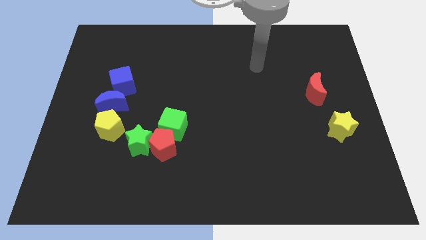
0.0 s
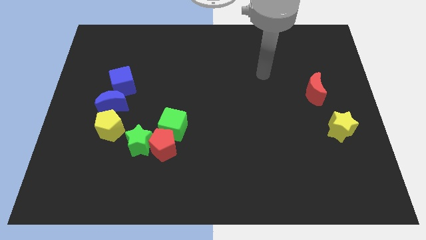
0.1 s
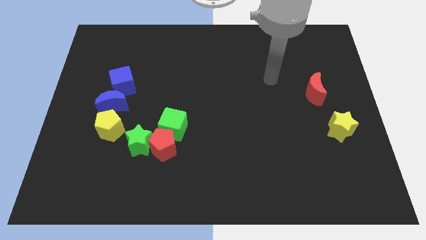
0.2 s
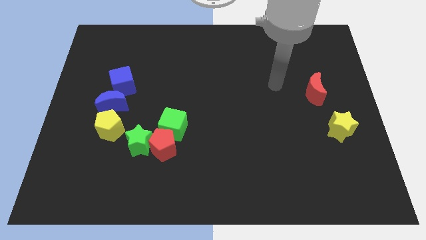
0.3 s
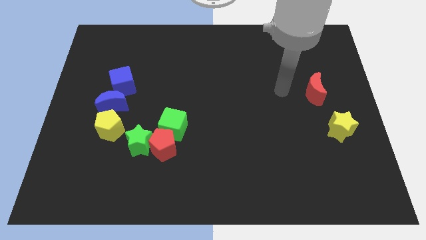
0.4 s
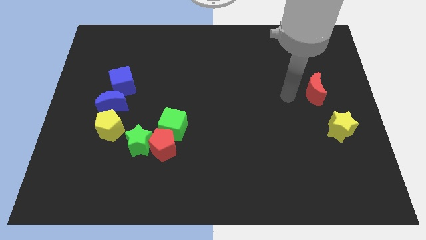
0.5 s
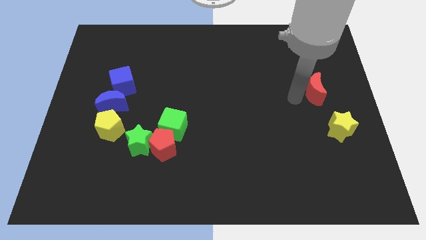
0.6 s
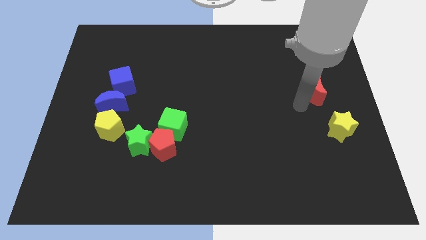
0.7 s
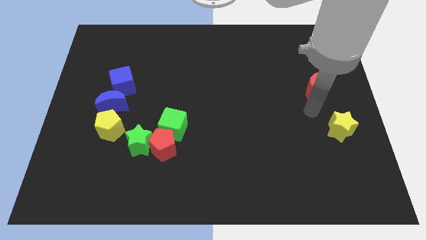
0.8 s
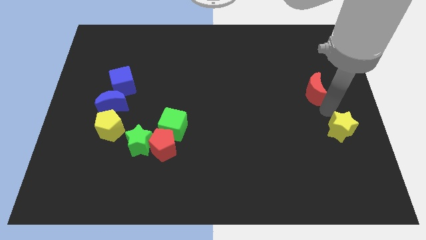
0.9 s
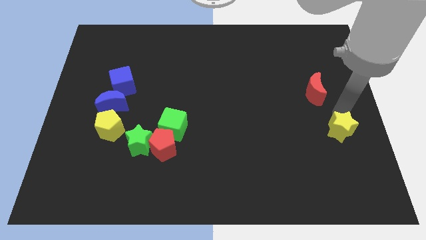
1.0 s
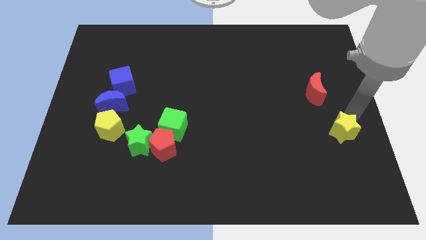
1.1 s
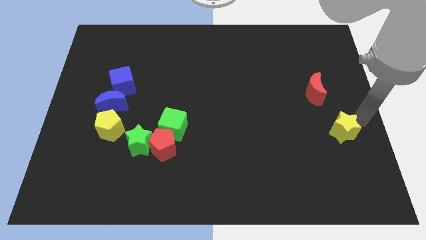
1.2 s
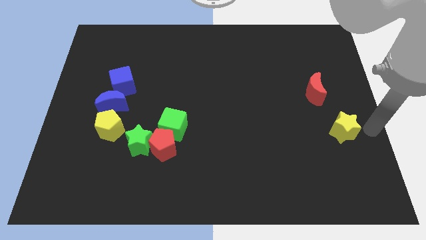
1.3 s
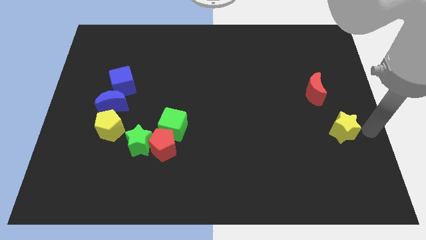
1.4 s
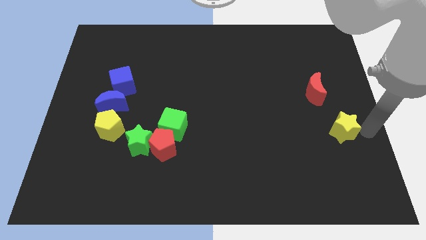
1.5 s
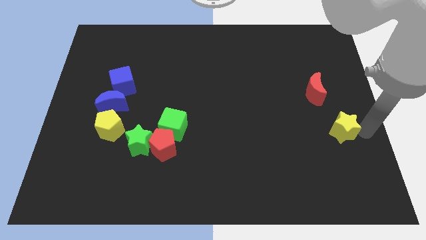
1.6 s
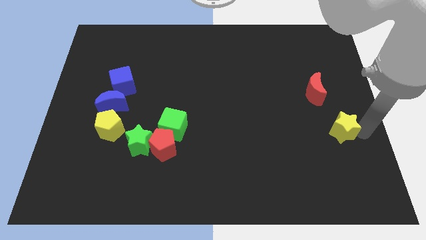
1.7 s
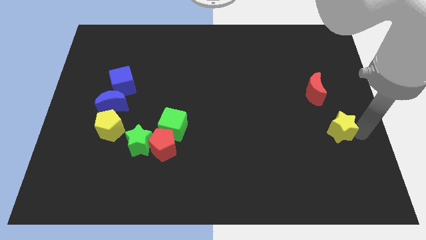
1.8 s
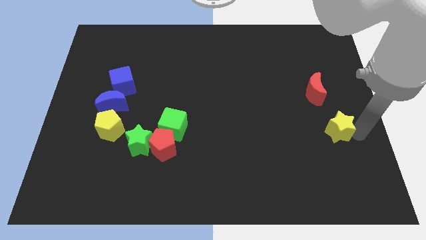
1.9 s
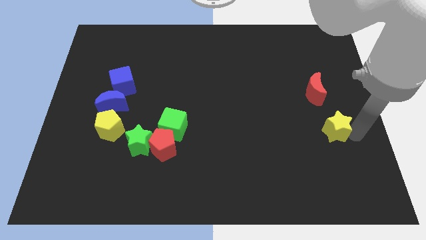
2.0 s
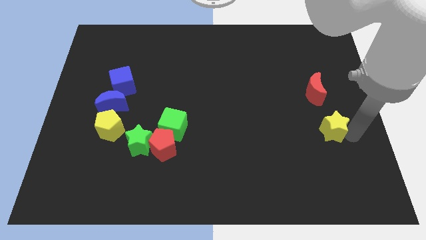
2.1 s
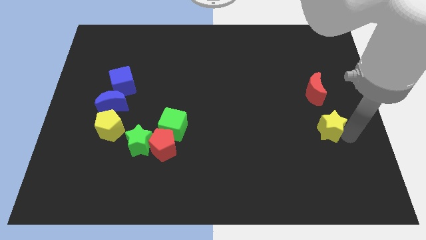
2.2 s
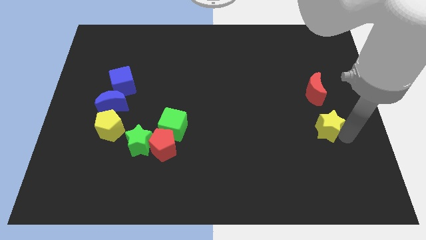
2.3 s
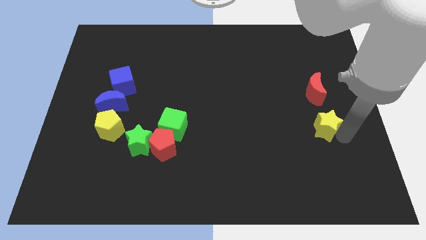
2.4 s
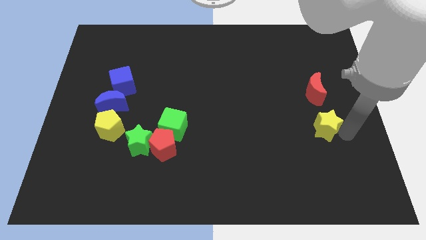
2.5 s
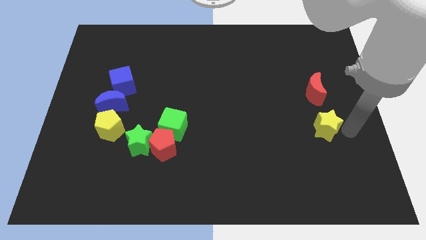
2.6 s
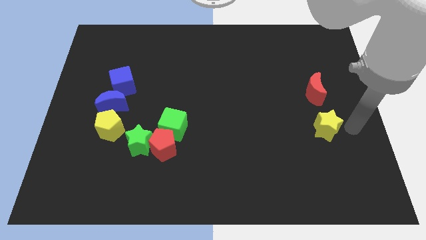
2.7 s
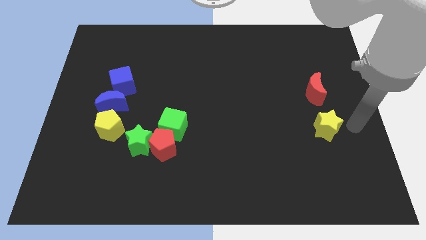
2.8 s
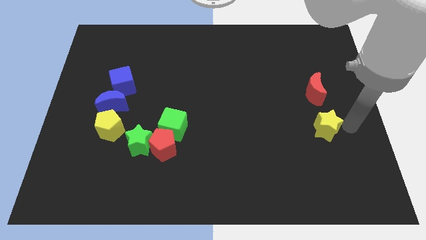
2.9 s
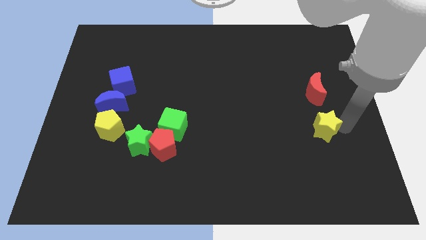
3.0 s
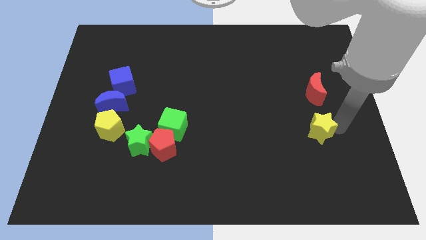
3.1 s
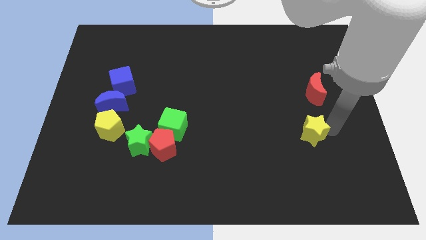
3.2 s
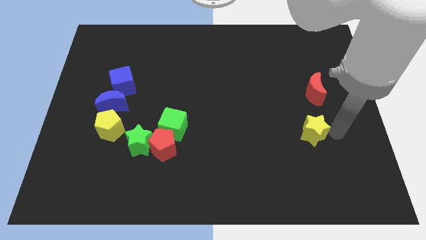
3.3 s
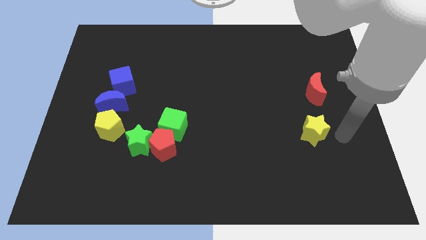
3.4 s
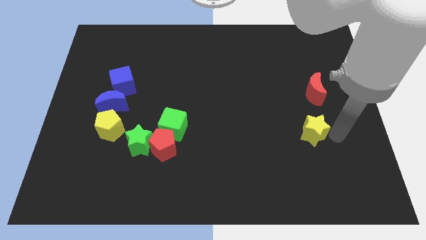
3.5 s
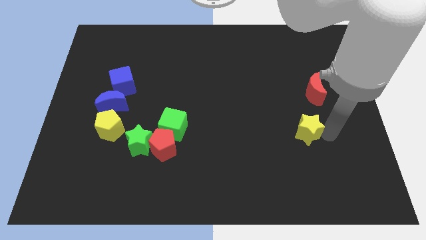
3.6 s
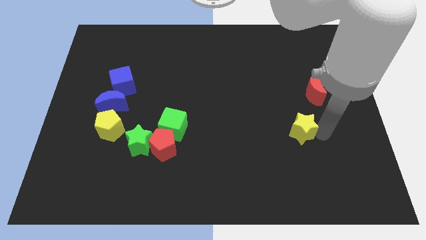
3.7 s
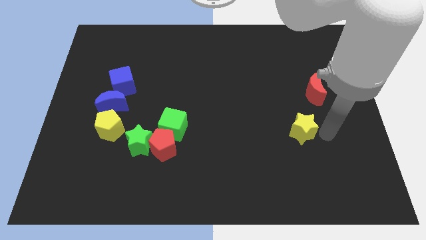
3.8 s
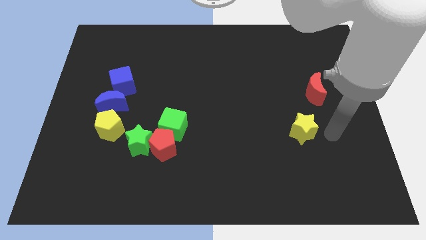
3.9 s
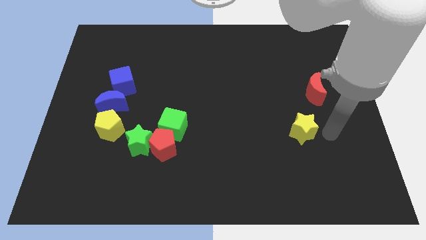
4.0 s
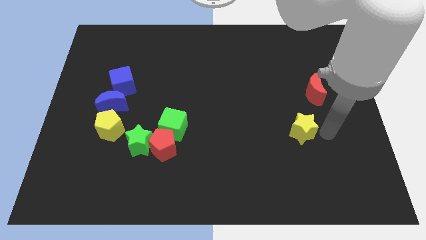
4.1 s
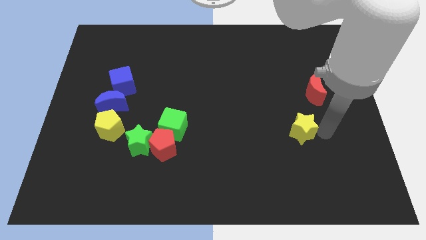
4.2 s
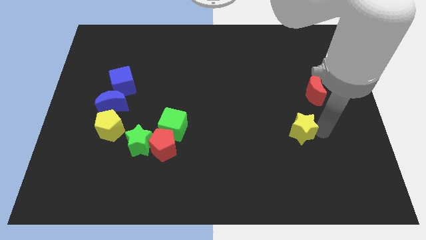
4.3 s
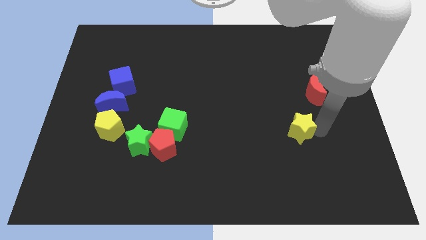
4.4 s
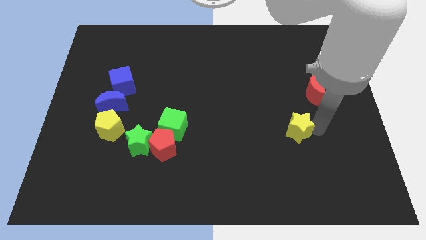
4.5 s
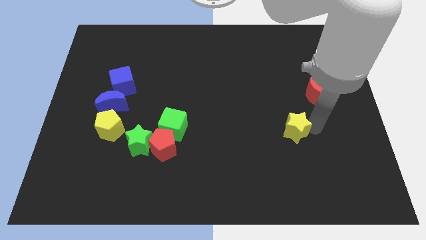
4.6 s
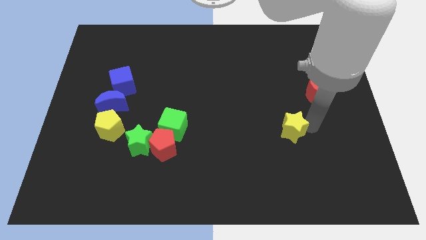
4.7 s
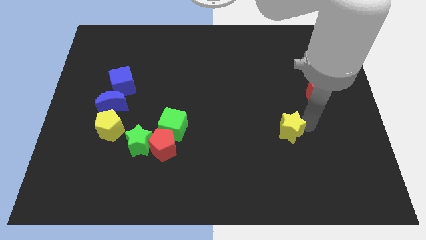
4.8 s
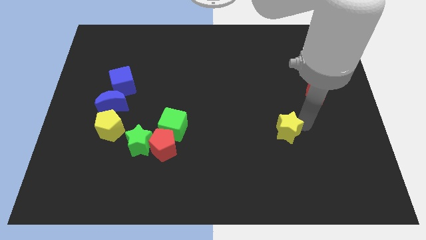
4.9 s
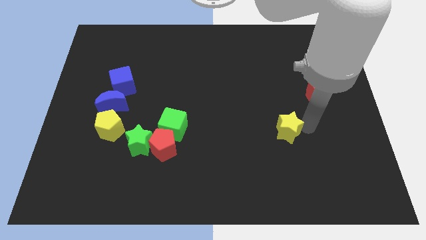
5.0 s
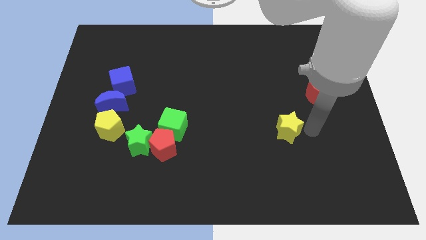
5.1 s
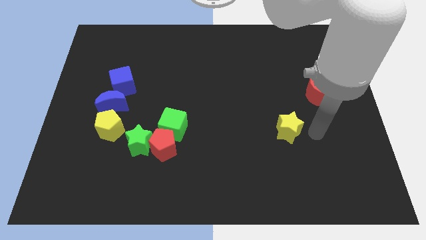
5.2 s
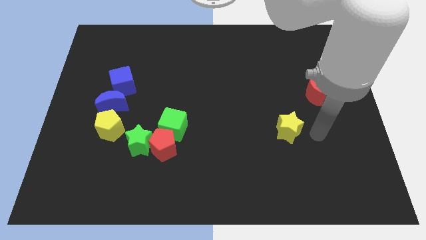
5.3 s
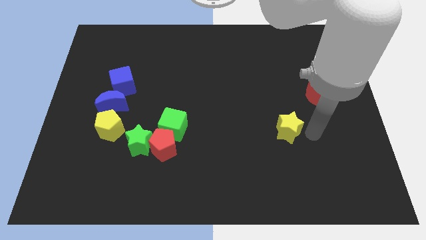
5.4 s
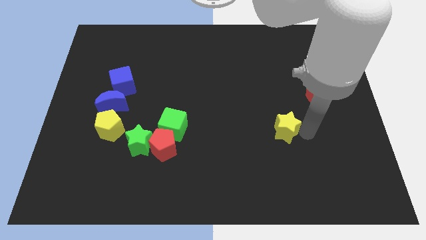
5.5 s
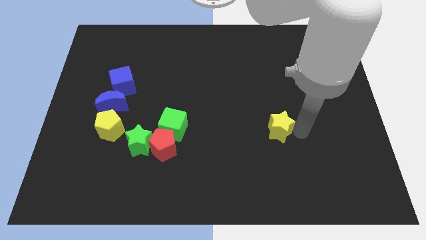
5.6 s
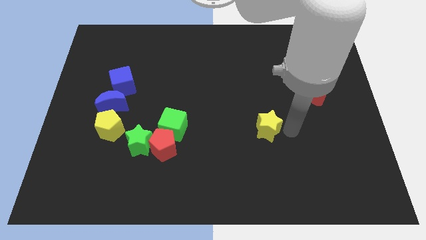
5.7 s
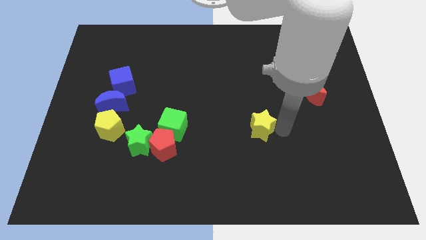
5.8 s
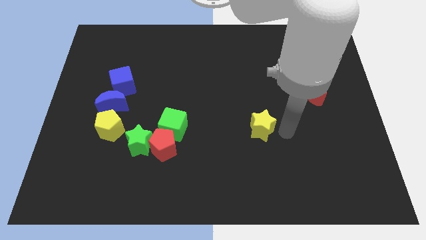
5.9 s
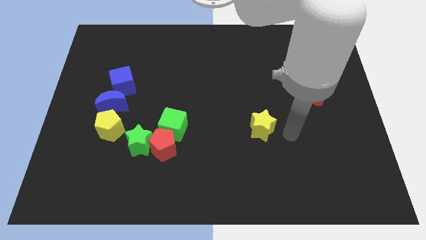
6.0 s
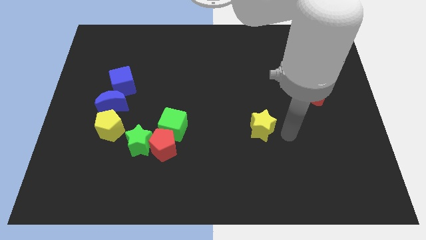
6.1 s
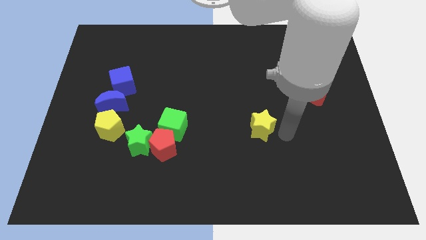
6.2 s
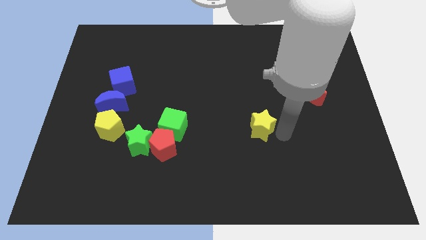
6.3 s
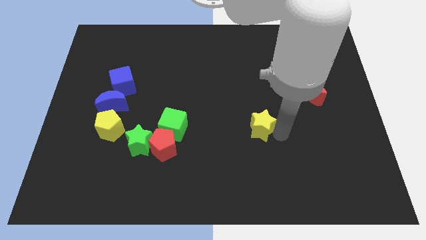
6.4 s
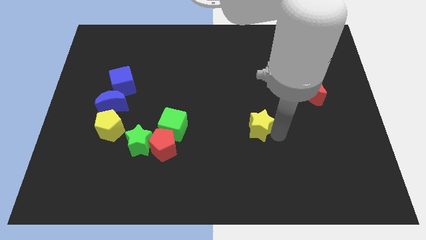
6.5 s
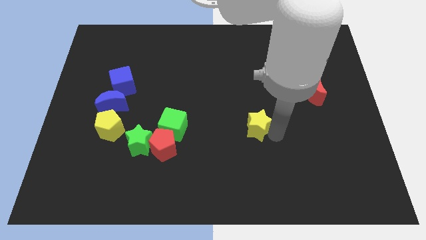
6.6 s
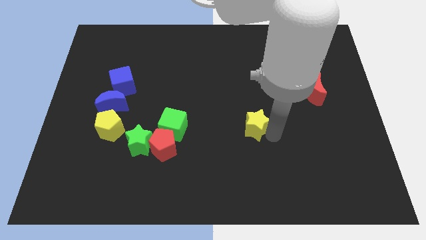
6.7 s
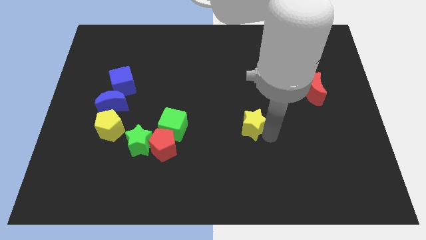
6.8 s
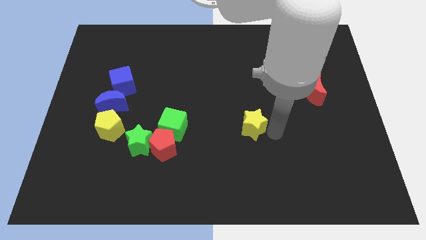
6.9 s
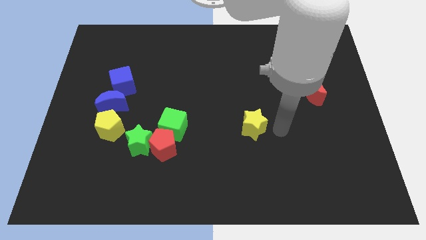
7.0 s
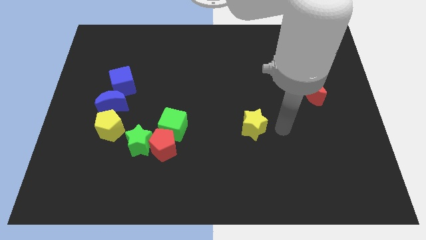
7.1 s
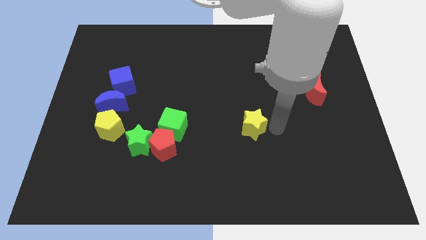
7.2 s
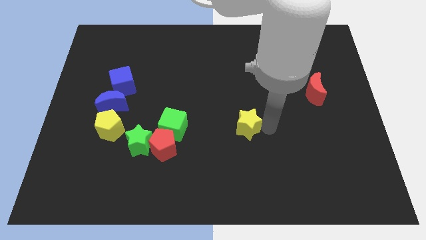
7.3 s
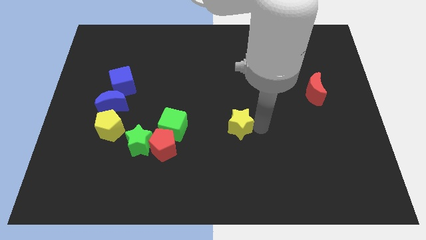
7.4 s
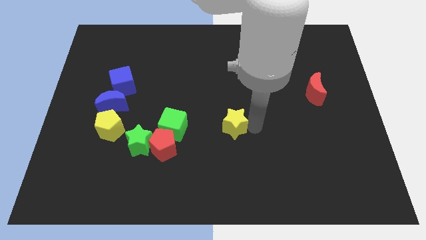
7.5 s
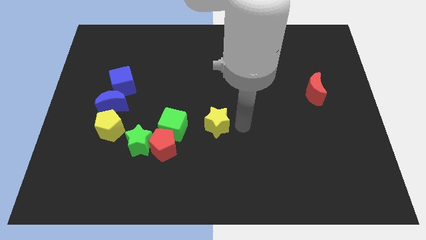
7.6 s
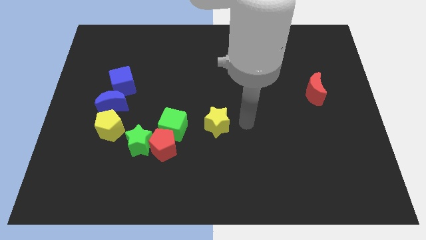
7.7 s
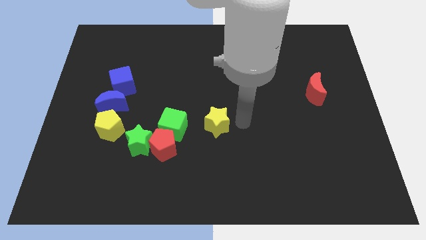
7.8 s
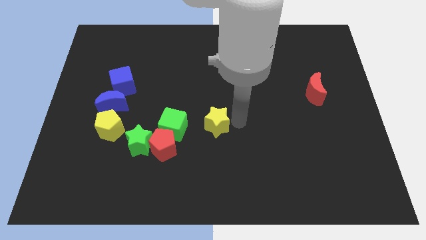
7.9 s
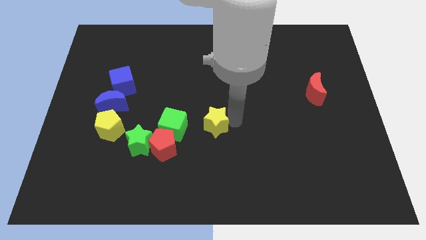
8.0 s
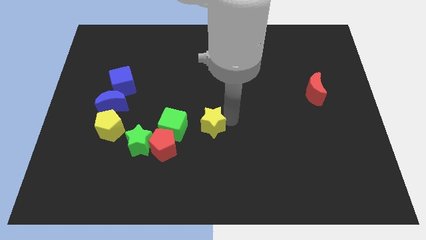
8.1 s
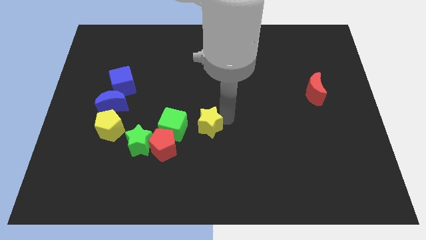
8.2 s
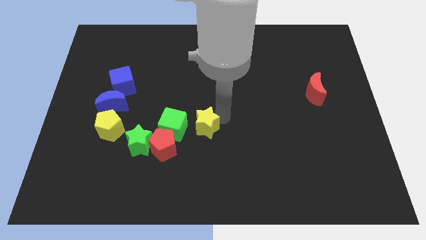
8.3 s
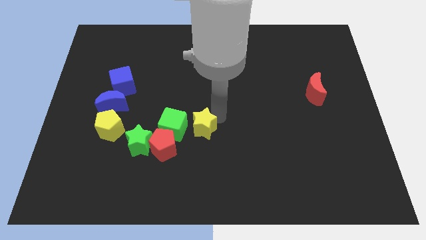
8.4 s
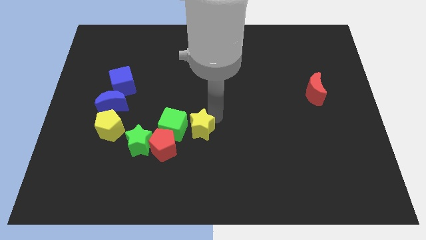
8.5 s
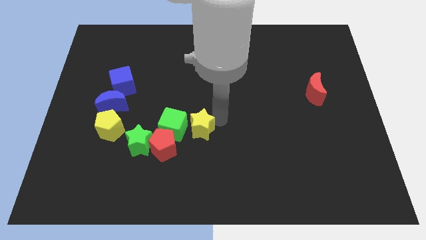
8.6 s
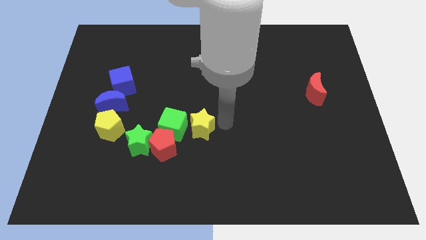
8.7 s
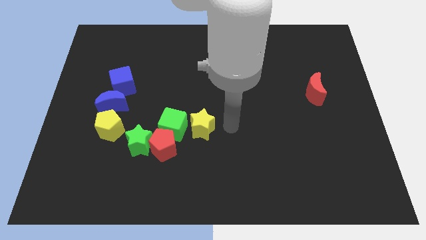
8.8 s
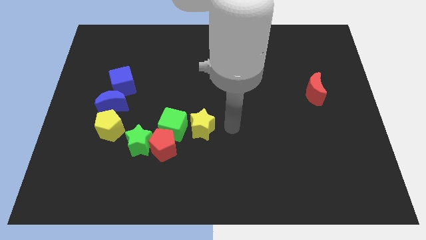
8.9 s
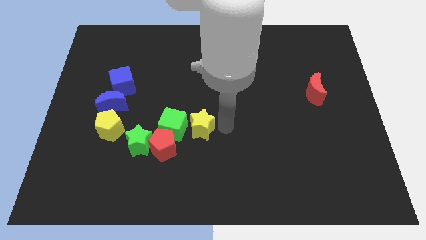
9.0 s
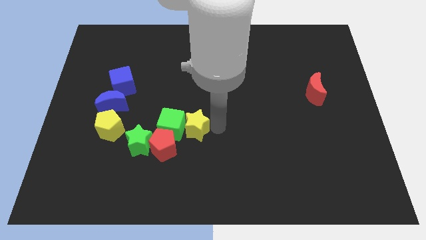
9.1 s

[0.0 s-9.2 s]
slide the yellow star next to the green cube
